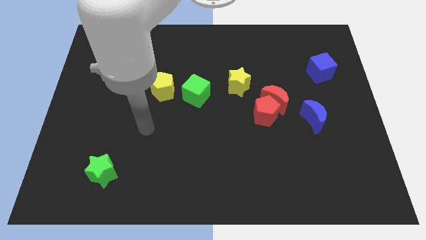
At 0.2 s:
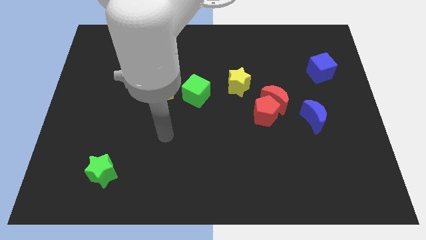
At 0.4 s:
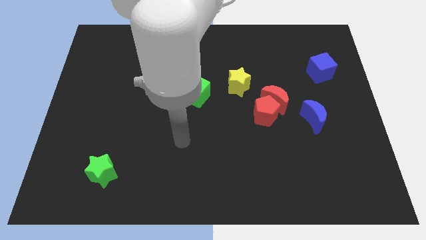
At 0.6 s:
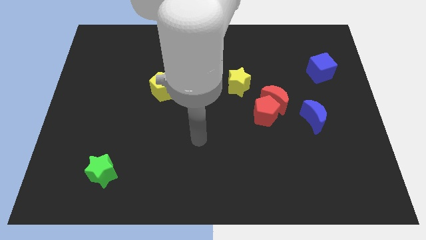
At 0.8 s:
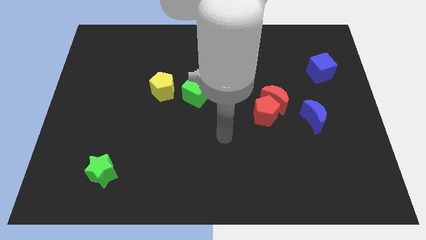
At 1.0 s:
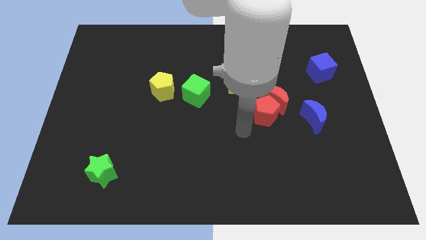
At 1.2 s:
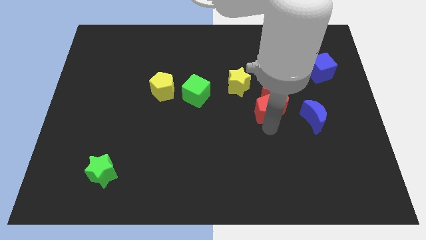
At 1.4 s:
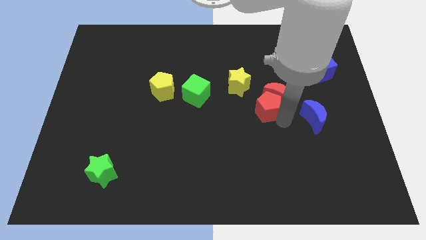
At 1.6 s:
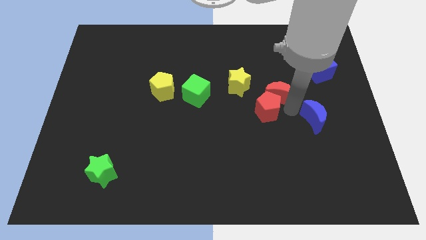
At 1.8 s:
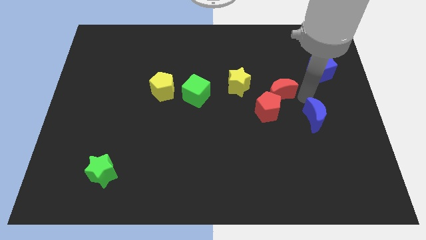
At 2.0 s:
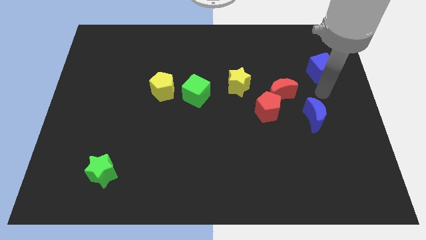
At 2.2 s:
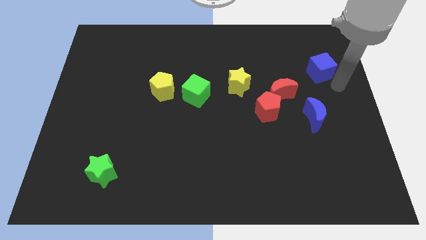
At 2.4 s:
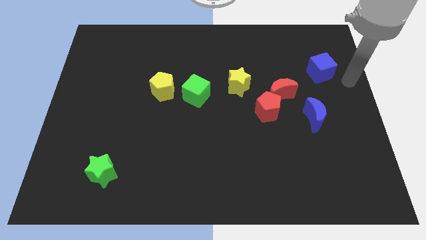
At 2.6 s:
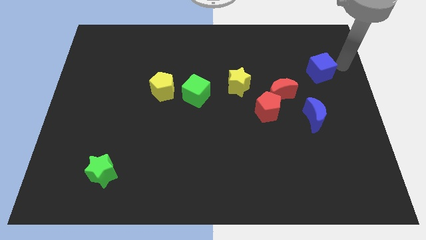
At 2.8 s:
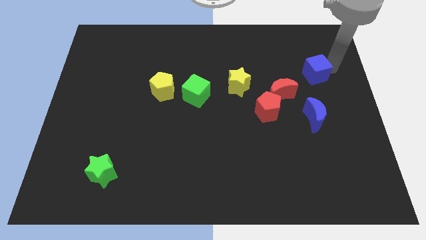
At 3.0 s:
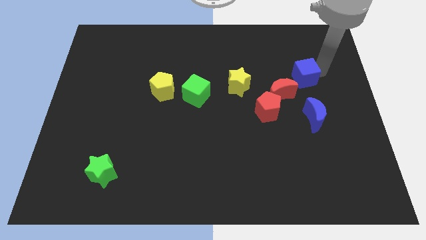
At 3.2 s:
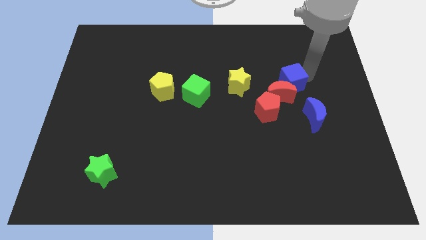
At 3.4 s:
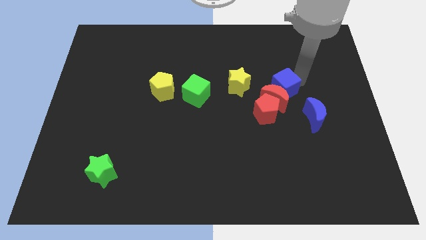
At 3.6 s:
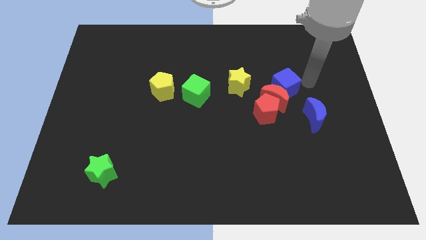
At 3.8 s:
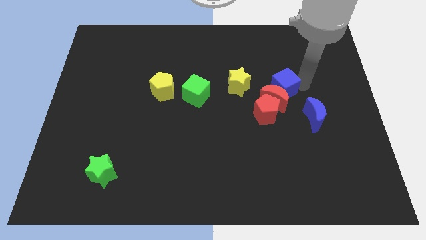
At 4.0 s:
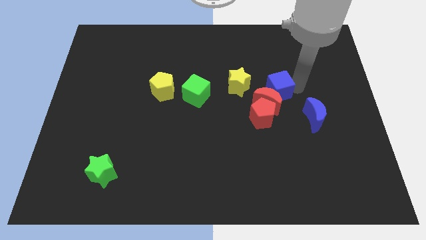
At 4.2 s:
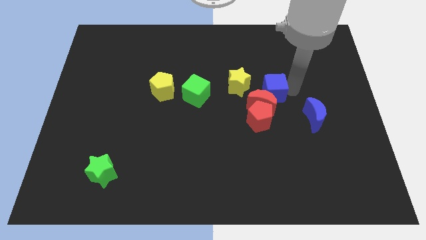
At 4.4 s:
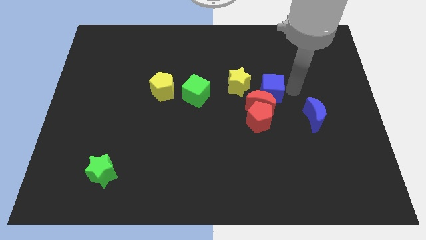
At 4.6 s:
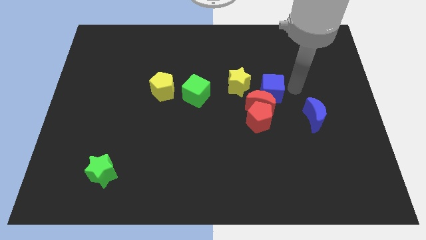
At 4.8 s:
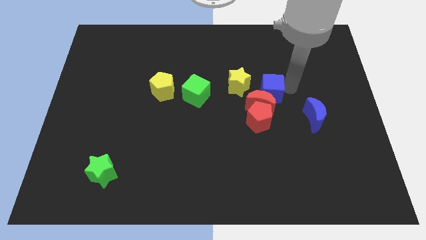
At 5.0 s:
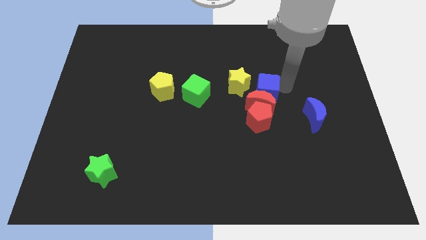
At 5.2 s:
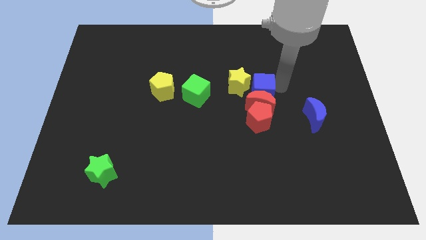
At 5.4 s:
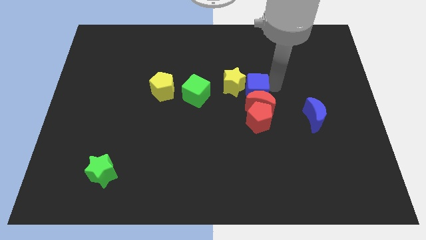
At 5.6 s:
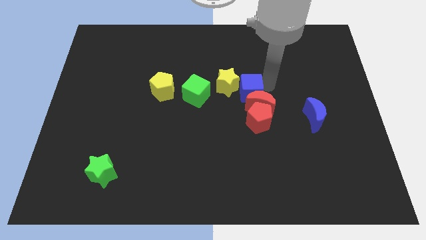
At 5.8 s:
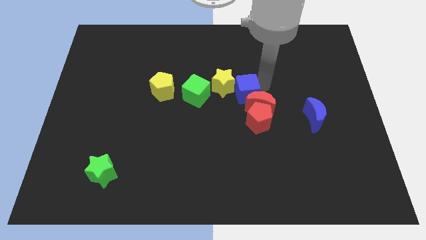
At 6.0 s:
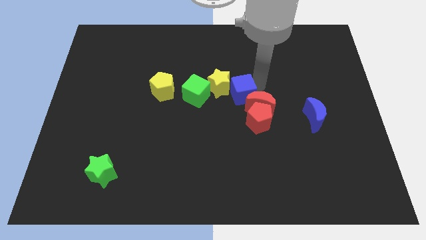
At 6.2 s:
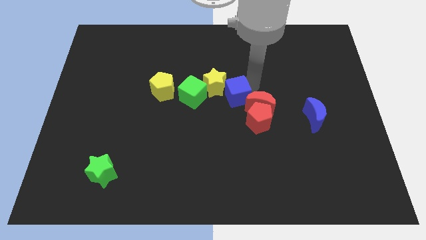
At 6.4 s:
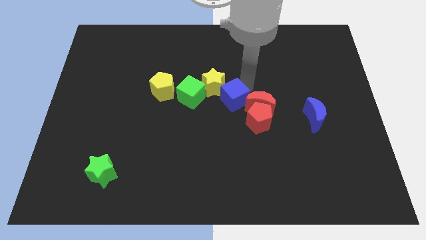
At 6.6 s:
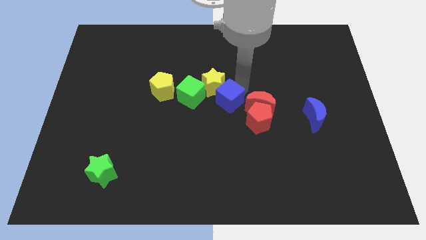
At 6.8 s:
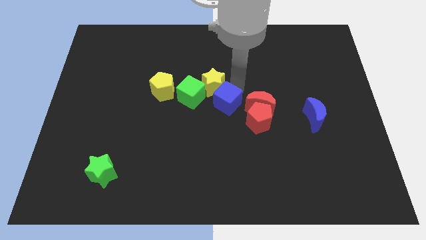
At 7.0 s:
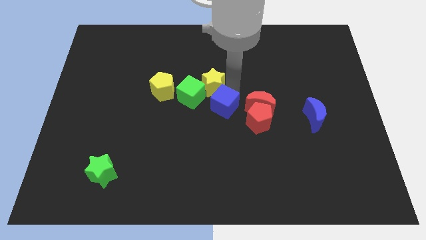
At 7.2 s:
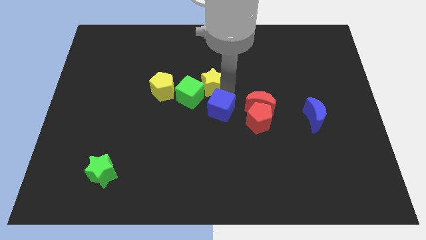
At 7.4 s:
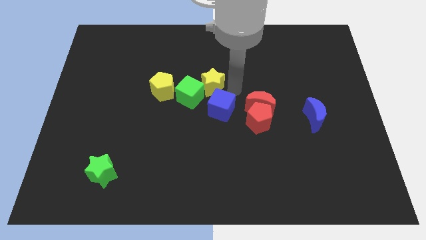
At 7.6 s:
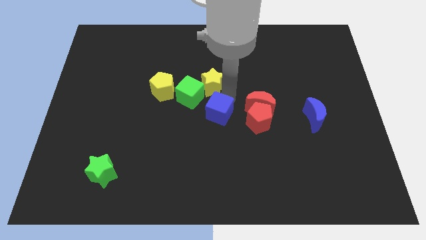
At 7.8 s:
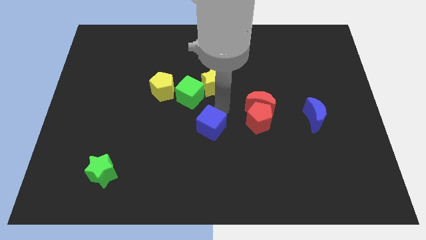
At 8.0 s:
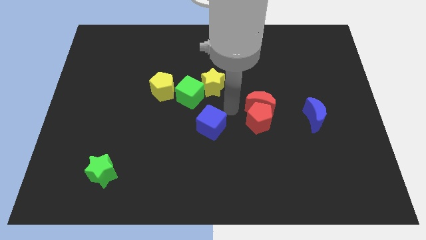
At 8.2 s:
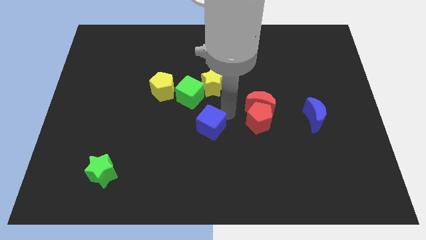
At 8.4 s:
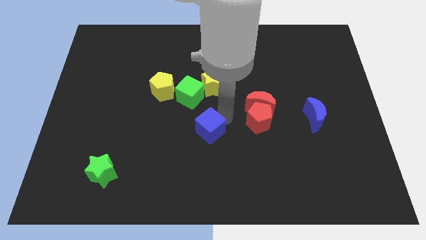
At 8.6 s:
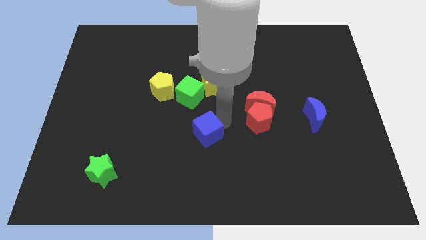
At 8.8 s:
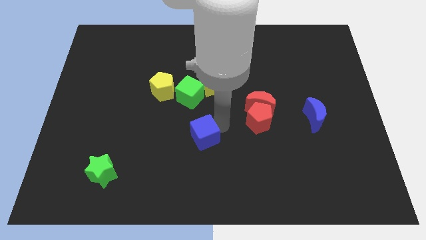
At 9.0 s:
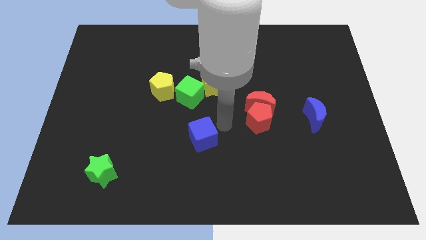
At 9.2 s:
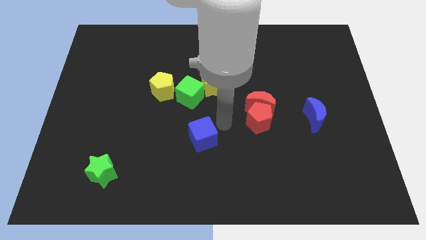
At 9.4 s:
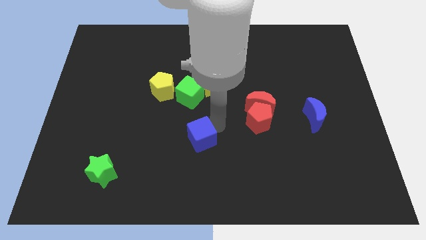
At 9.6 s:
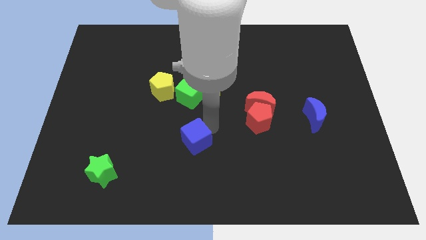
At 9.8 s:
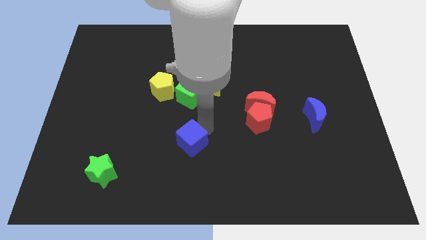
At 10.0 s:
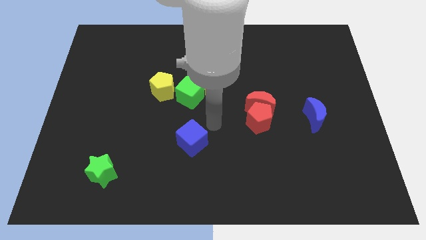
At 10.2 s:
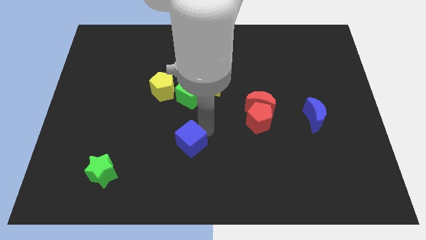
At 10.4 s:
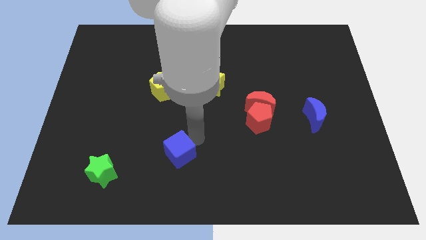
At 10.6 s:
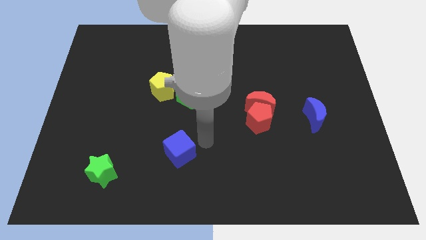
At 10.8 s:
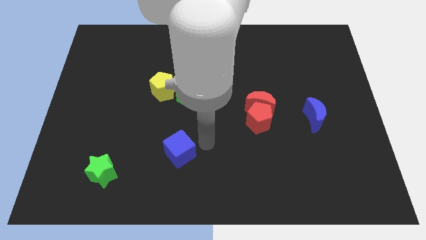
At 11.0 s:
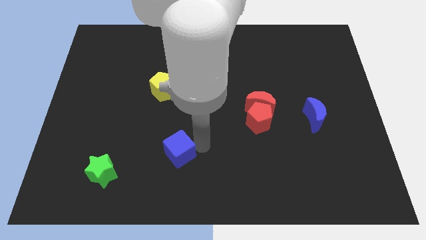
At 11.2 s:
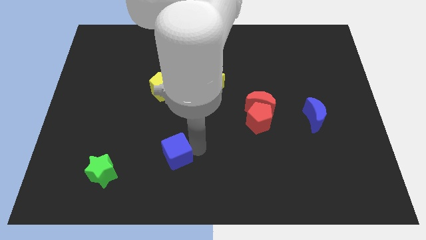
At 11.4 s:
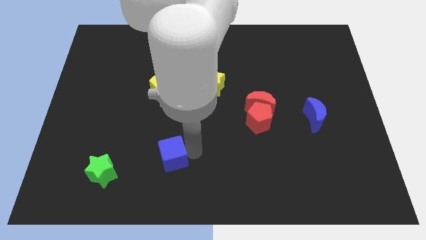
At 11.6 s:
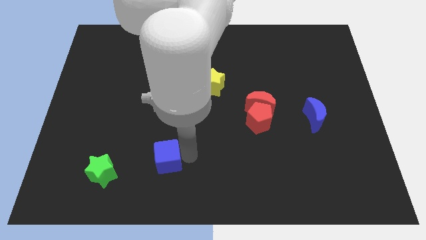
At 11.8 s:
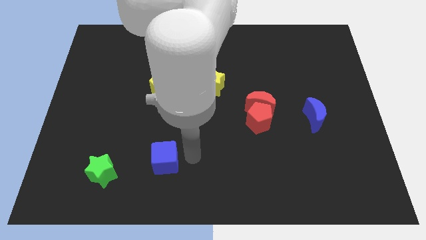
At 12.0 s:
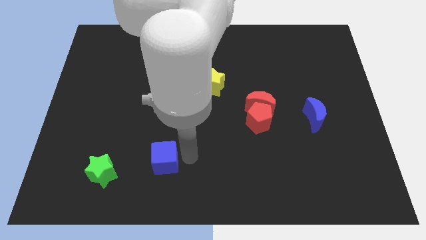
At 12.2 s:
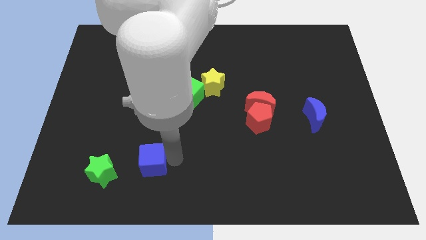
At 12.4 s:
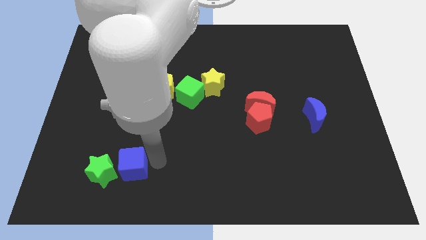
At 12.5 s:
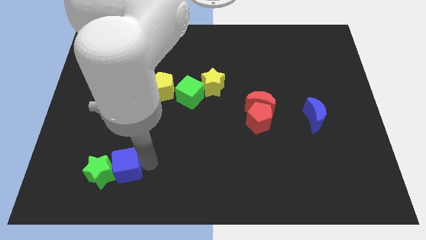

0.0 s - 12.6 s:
put the blue cube next to the green star

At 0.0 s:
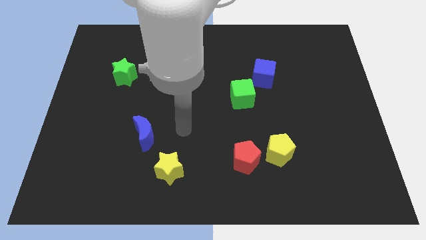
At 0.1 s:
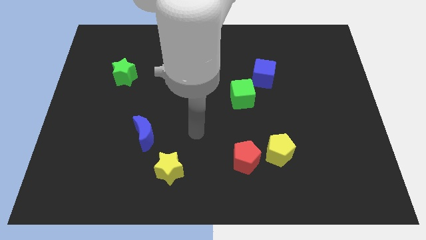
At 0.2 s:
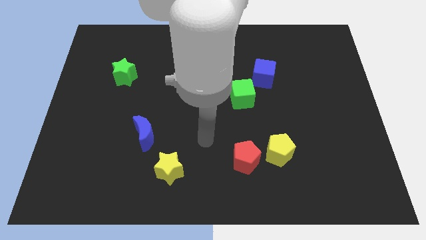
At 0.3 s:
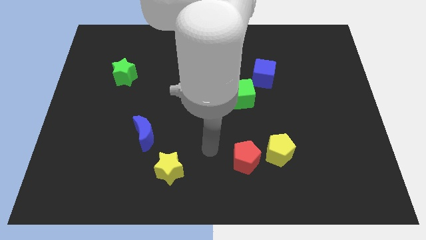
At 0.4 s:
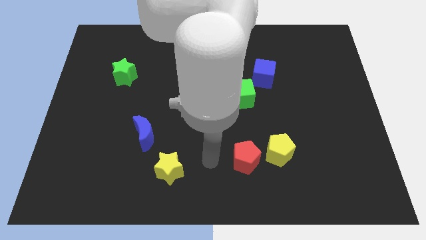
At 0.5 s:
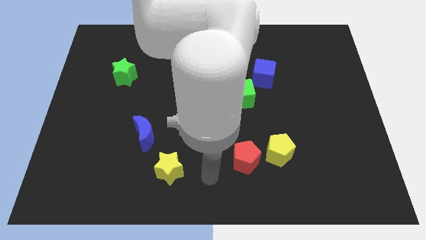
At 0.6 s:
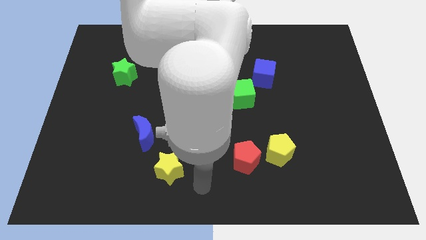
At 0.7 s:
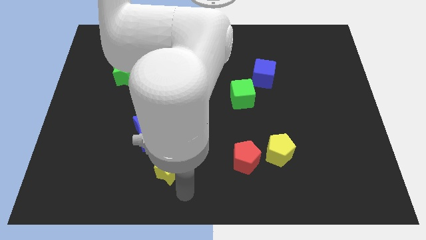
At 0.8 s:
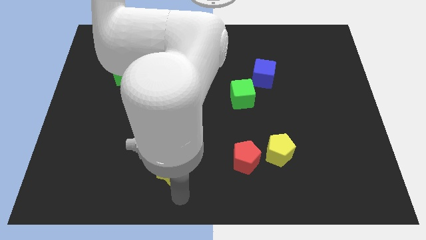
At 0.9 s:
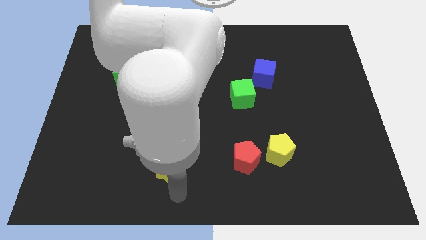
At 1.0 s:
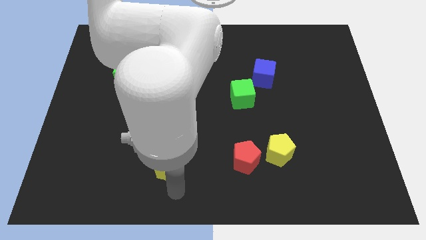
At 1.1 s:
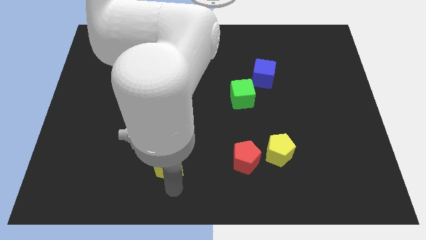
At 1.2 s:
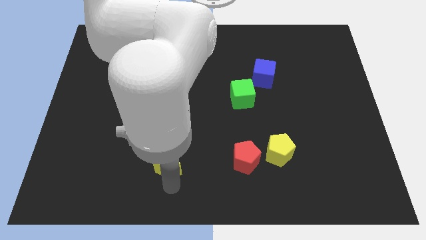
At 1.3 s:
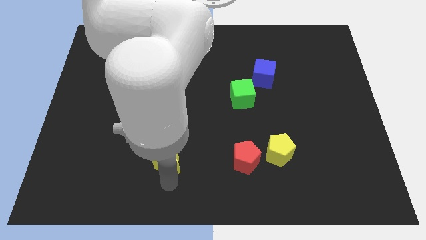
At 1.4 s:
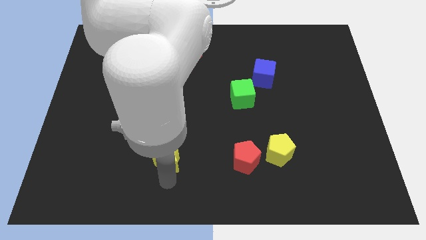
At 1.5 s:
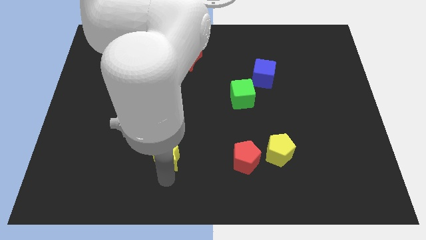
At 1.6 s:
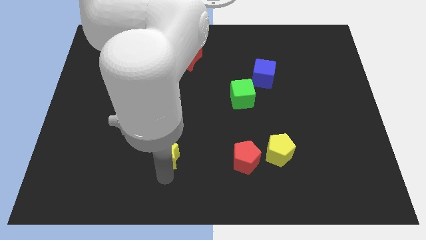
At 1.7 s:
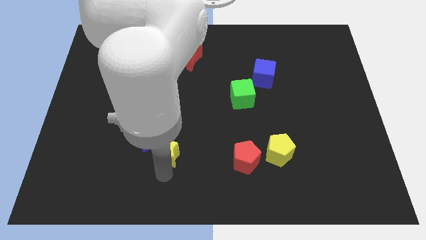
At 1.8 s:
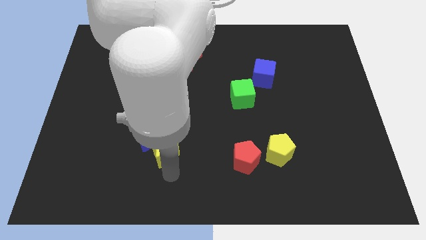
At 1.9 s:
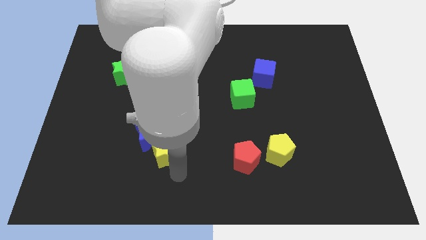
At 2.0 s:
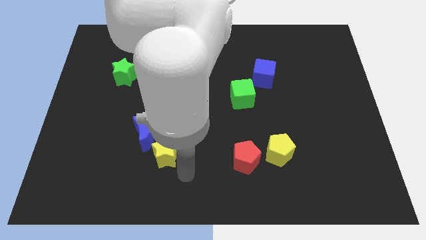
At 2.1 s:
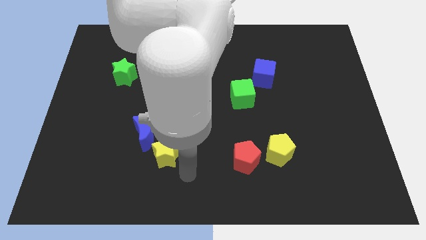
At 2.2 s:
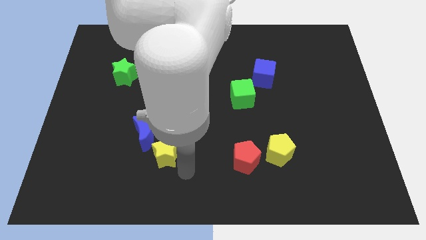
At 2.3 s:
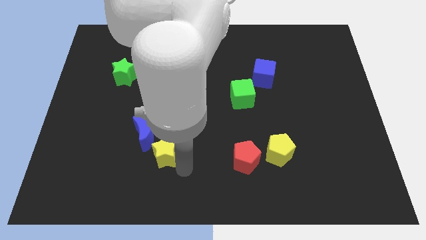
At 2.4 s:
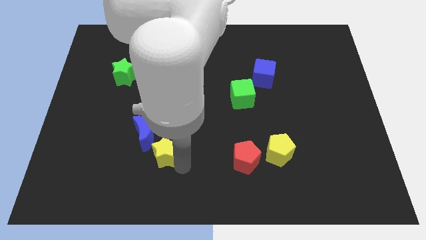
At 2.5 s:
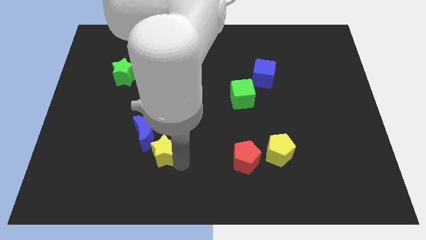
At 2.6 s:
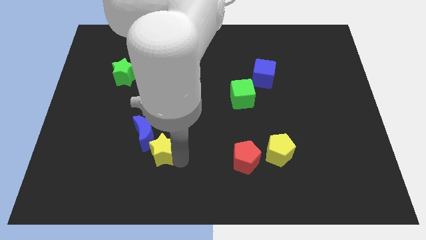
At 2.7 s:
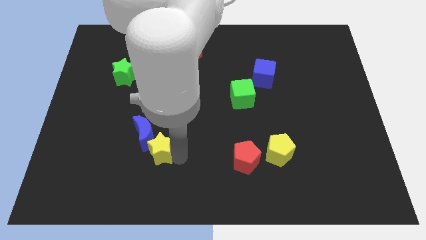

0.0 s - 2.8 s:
put the yellow star towards the blue moon
